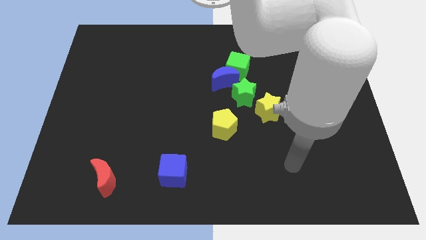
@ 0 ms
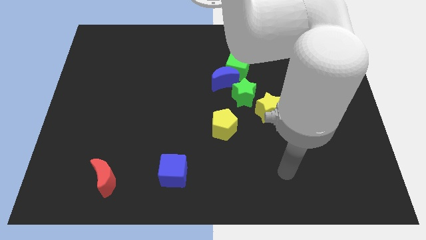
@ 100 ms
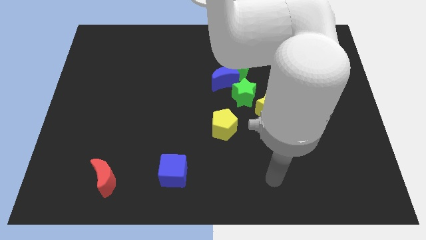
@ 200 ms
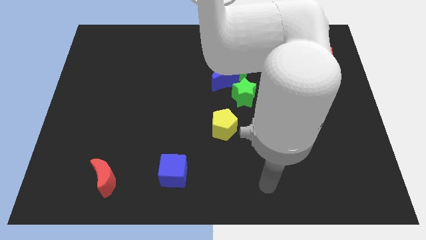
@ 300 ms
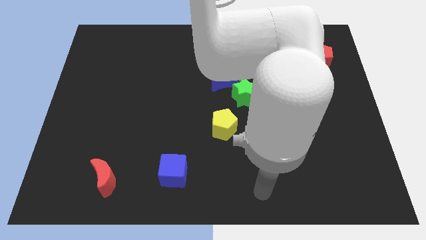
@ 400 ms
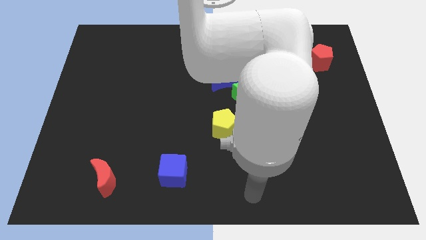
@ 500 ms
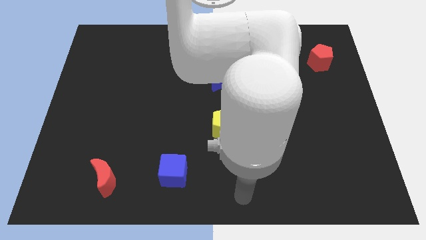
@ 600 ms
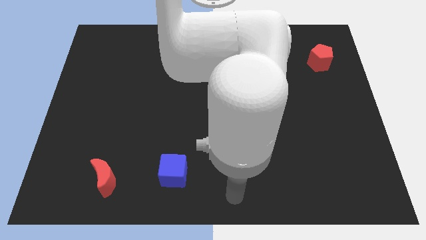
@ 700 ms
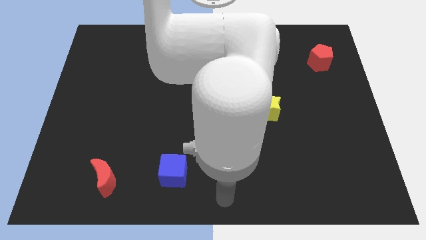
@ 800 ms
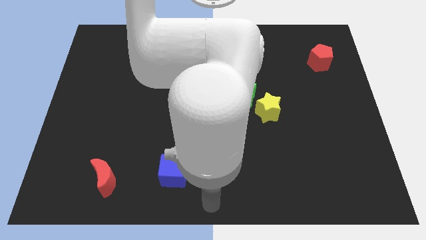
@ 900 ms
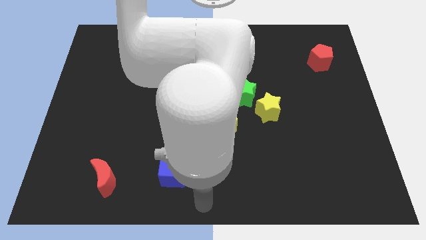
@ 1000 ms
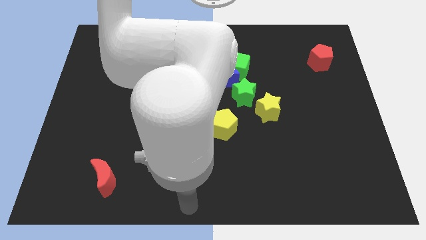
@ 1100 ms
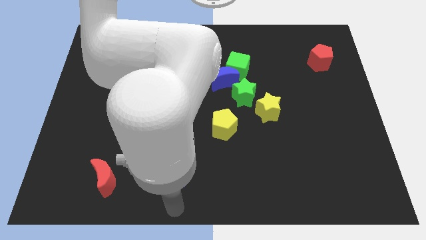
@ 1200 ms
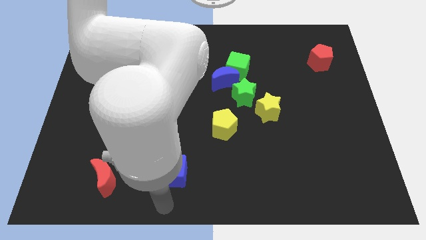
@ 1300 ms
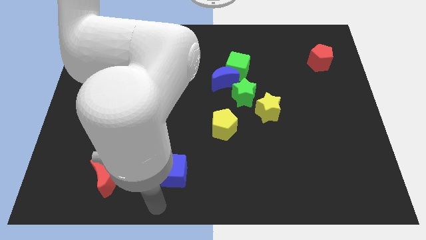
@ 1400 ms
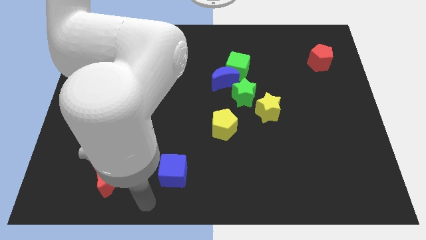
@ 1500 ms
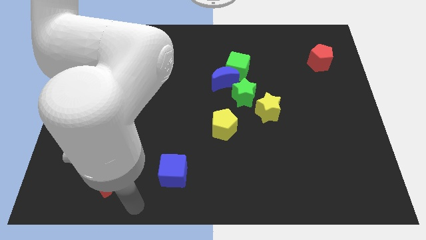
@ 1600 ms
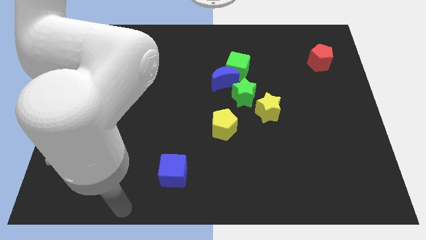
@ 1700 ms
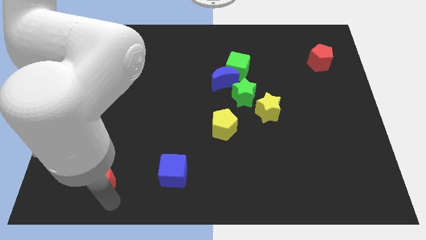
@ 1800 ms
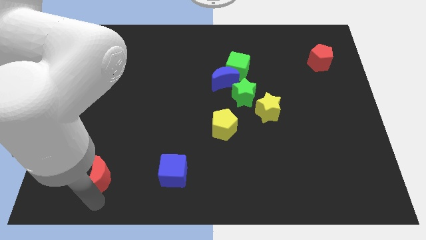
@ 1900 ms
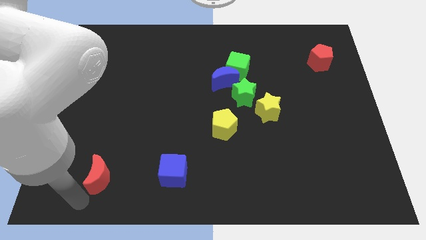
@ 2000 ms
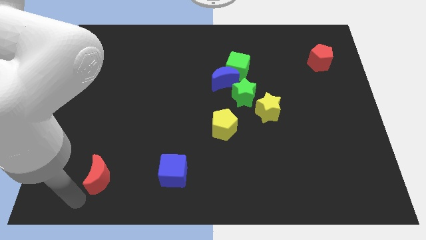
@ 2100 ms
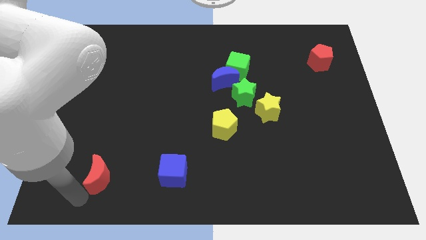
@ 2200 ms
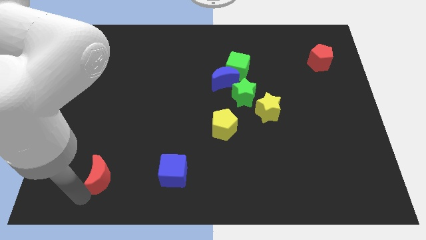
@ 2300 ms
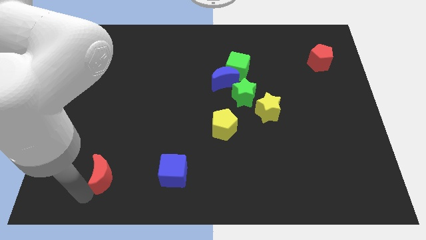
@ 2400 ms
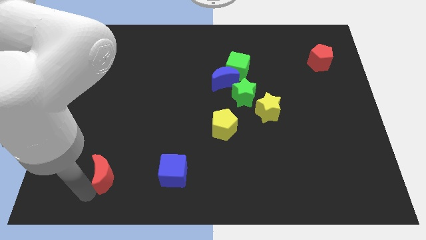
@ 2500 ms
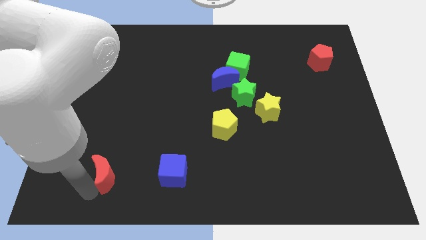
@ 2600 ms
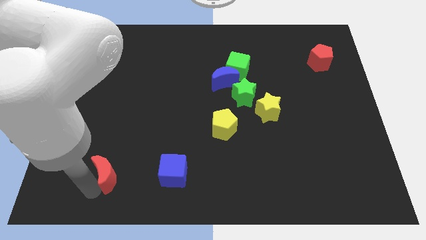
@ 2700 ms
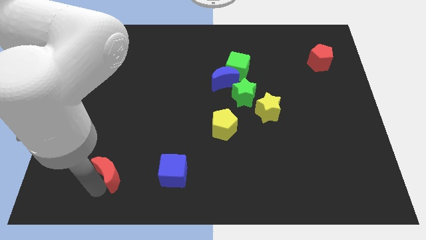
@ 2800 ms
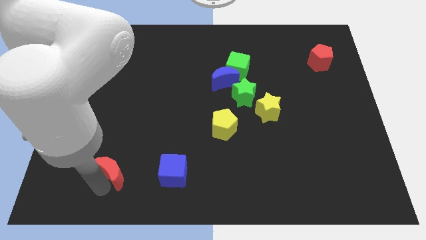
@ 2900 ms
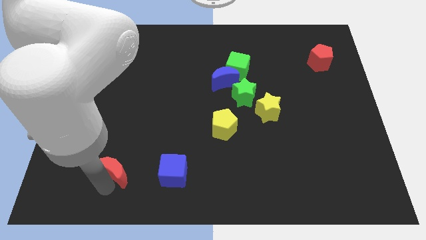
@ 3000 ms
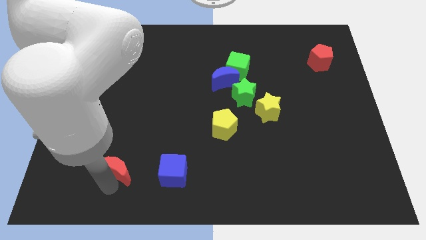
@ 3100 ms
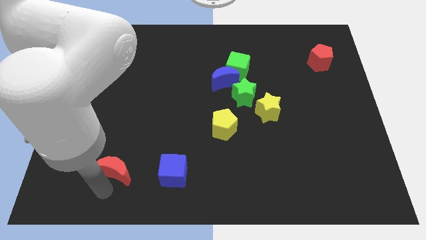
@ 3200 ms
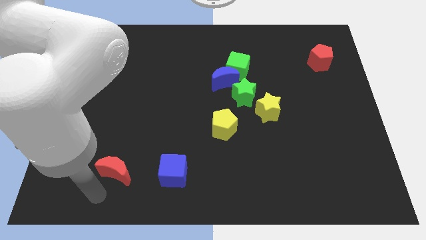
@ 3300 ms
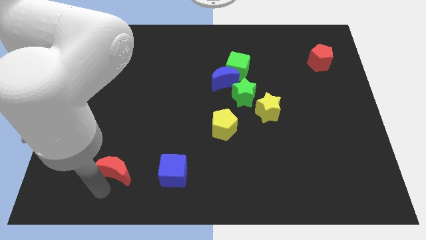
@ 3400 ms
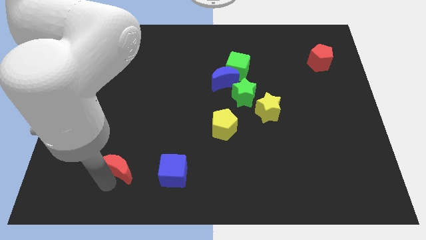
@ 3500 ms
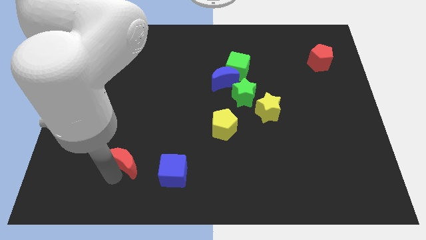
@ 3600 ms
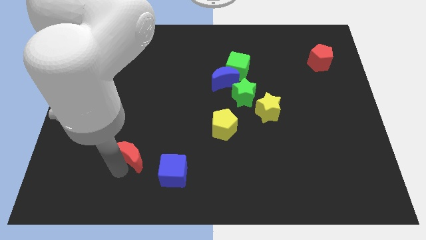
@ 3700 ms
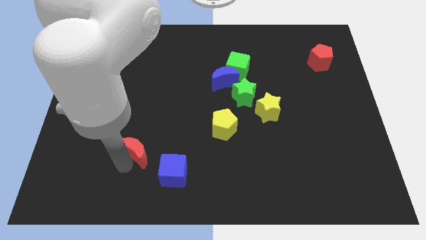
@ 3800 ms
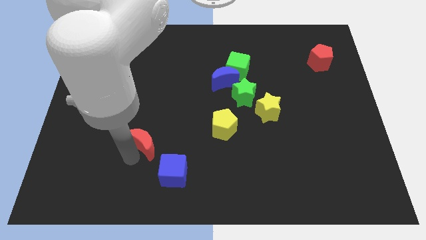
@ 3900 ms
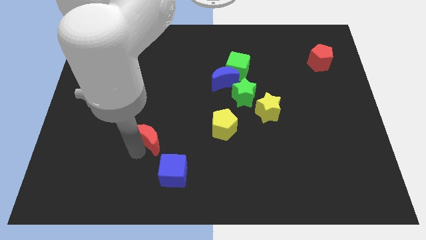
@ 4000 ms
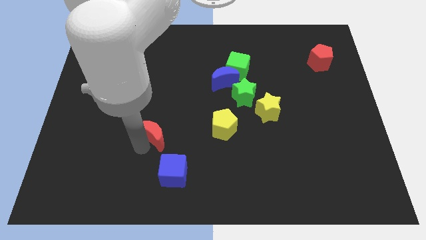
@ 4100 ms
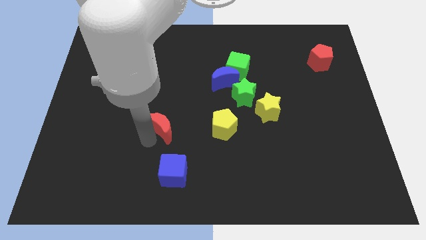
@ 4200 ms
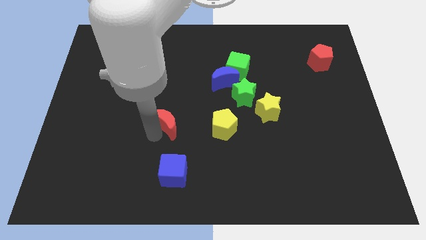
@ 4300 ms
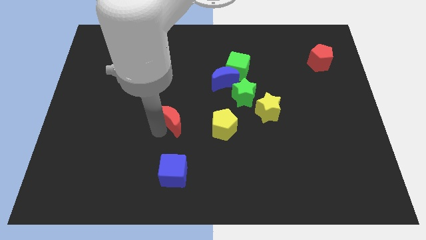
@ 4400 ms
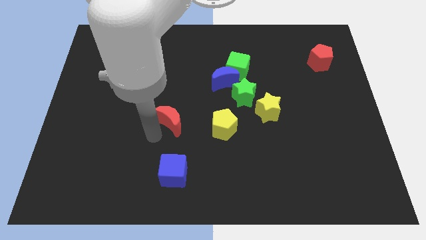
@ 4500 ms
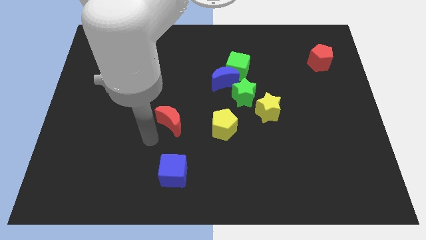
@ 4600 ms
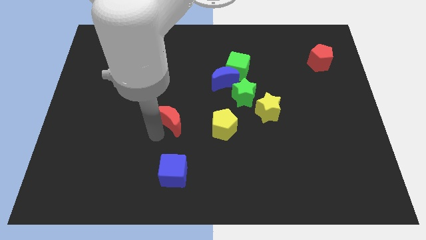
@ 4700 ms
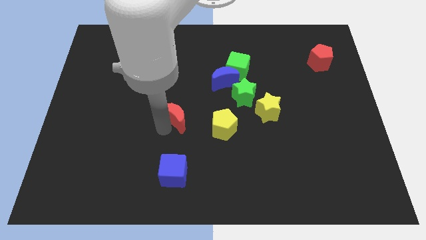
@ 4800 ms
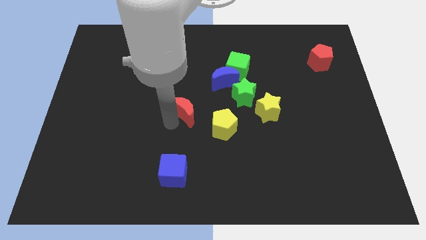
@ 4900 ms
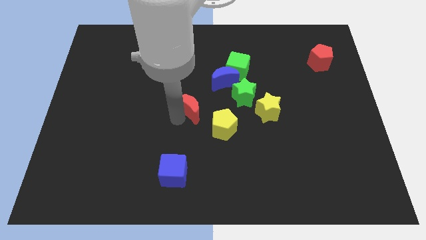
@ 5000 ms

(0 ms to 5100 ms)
put the red moon to the bottom left side of the blue moon

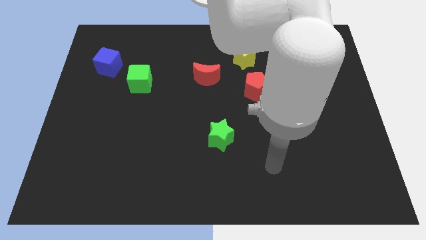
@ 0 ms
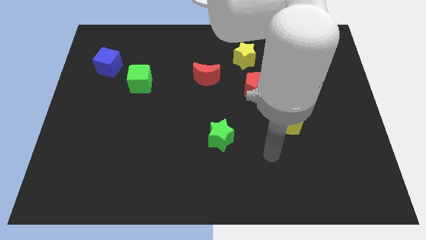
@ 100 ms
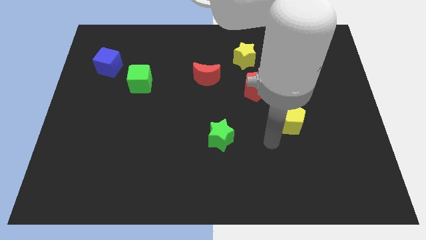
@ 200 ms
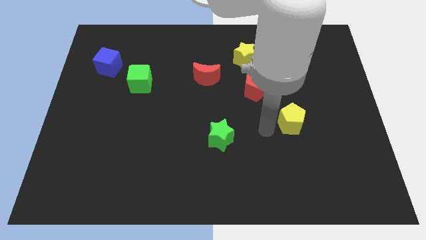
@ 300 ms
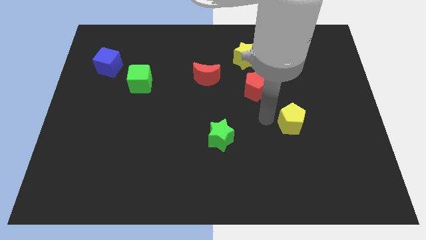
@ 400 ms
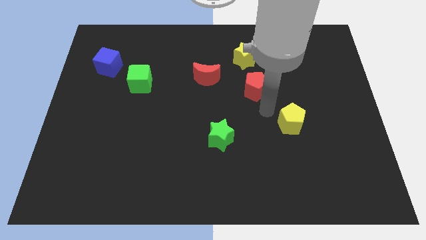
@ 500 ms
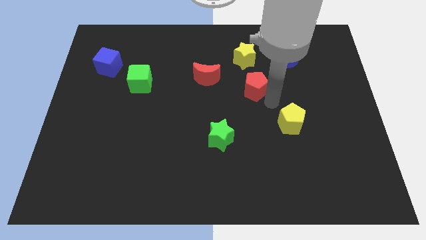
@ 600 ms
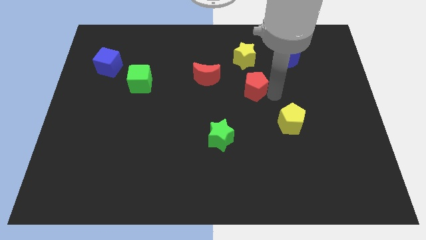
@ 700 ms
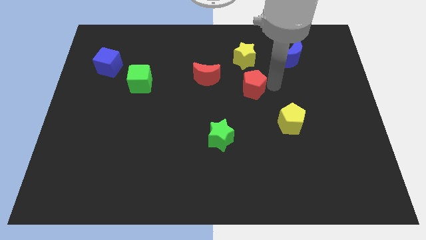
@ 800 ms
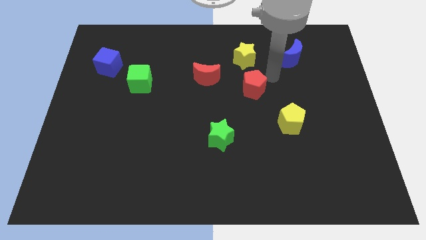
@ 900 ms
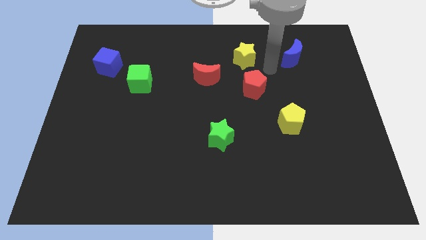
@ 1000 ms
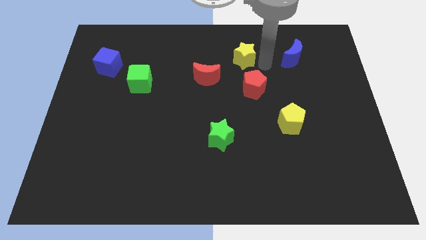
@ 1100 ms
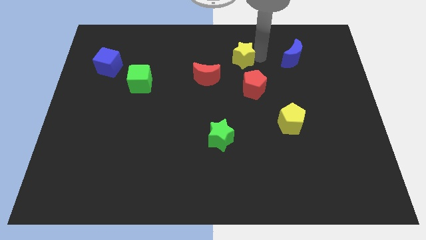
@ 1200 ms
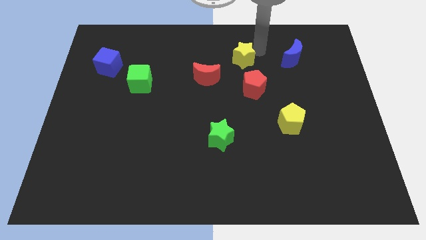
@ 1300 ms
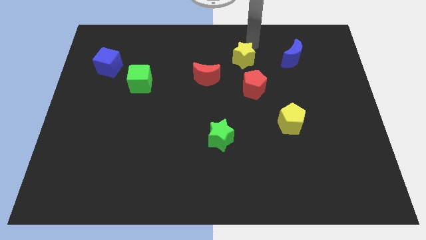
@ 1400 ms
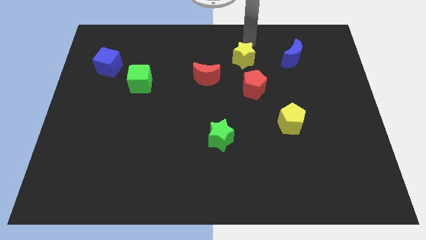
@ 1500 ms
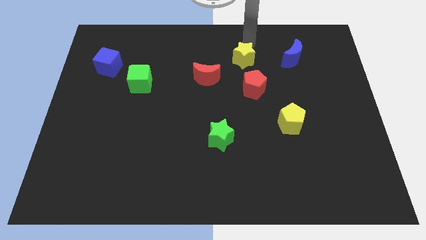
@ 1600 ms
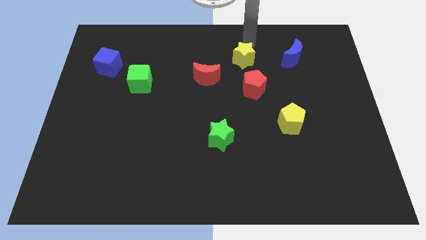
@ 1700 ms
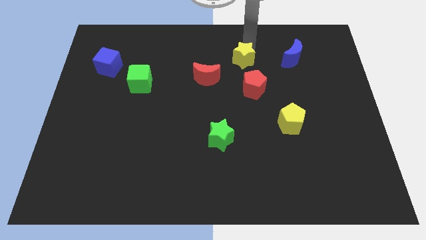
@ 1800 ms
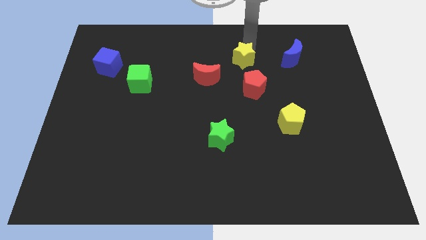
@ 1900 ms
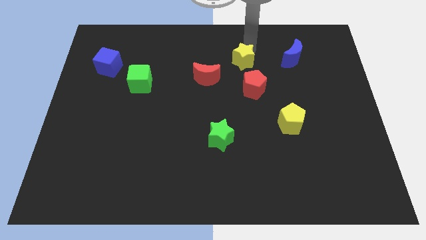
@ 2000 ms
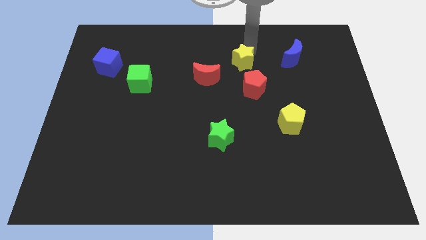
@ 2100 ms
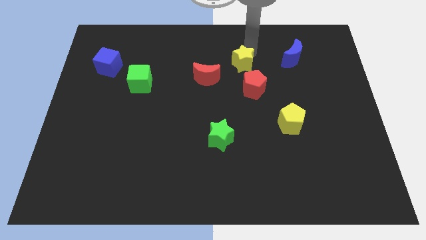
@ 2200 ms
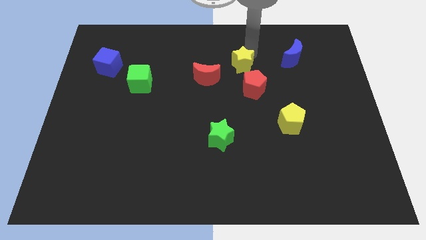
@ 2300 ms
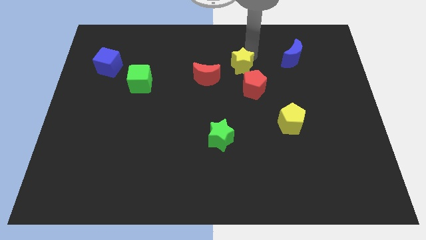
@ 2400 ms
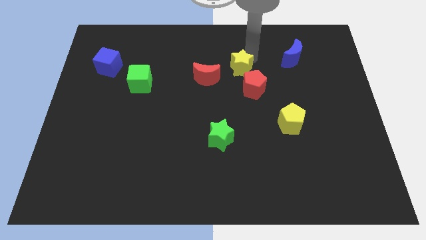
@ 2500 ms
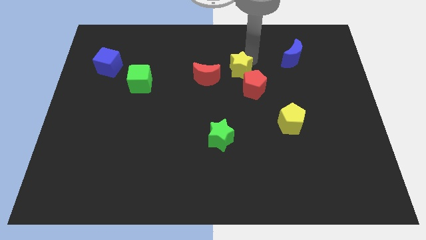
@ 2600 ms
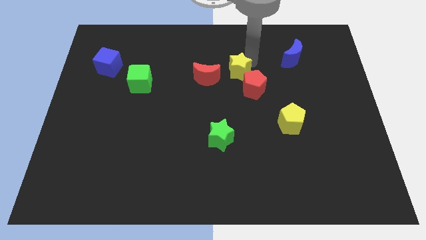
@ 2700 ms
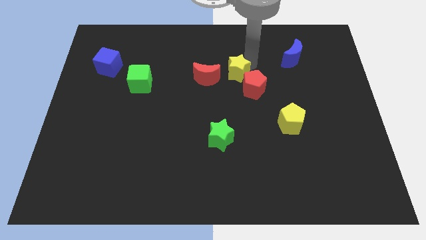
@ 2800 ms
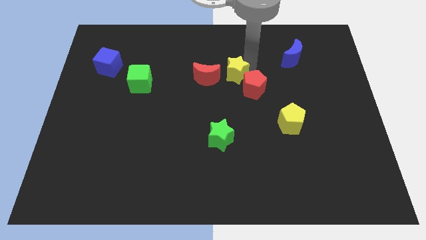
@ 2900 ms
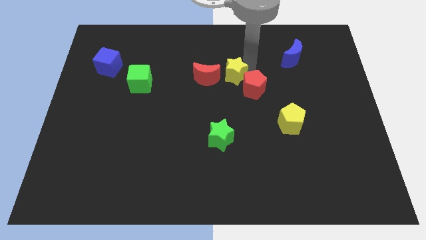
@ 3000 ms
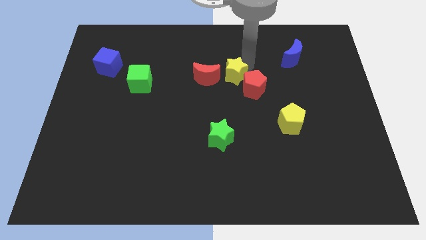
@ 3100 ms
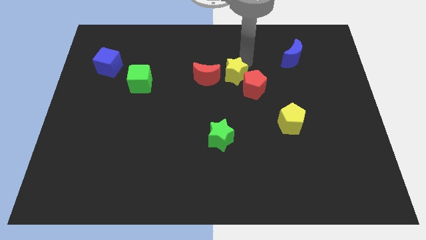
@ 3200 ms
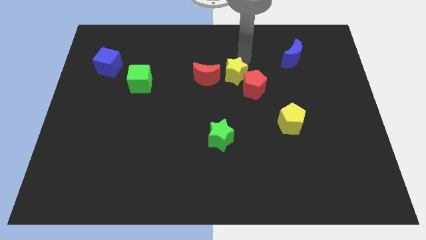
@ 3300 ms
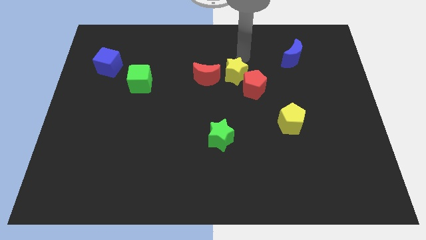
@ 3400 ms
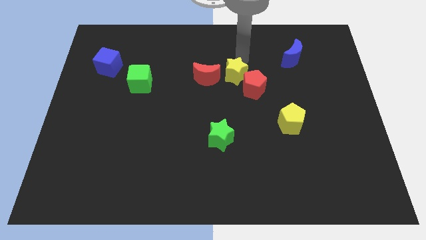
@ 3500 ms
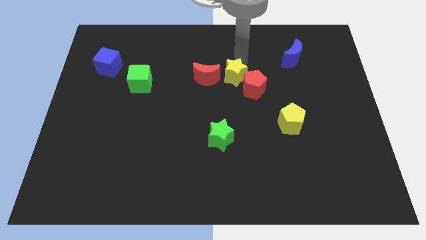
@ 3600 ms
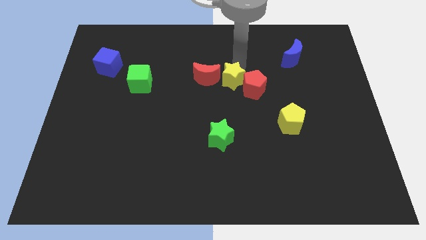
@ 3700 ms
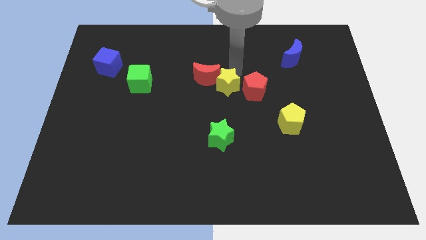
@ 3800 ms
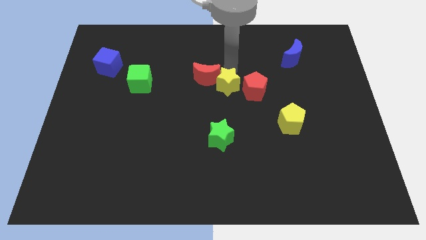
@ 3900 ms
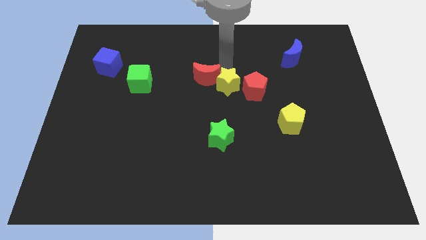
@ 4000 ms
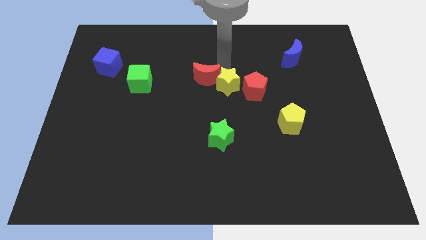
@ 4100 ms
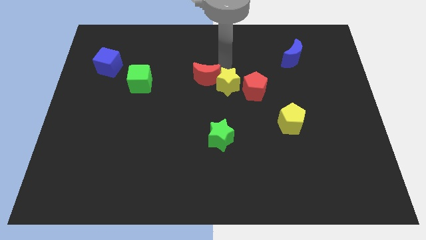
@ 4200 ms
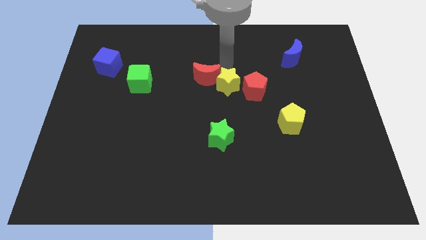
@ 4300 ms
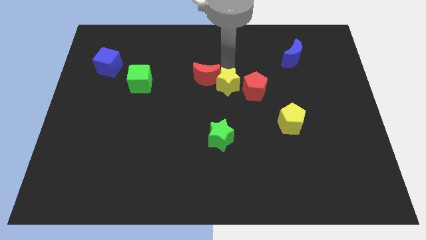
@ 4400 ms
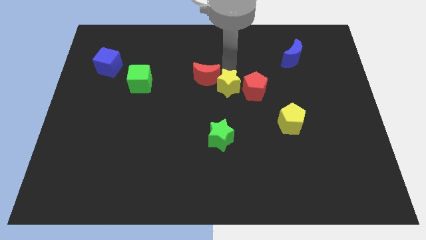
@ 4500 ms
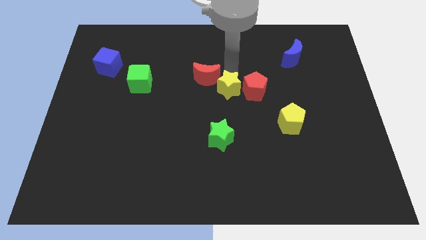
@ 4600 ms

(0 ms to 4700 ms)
push the yellow star to the bottom left of the red pentagon
